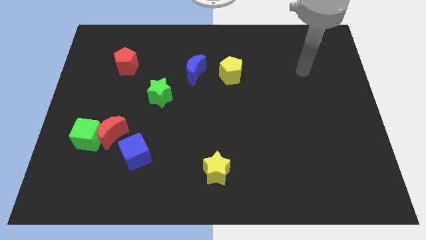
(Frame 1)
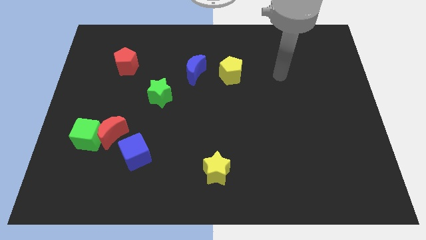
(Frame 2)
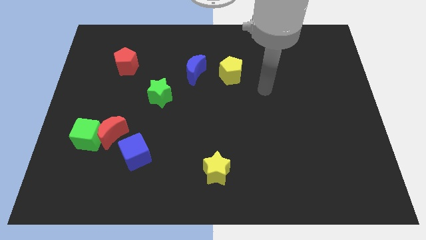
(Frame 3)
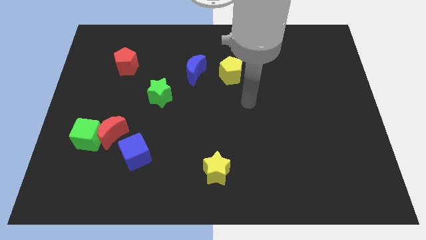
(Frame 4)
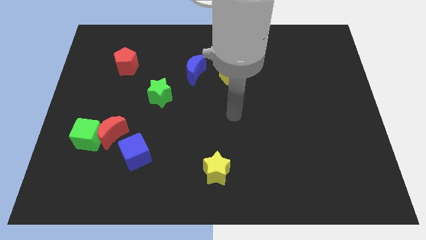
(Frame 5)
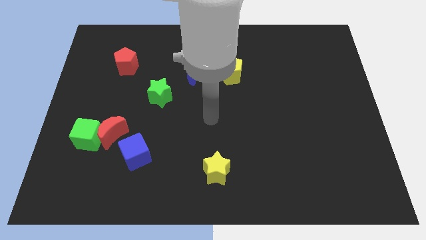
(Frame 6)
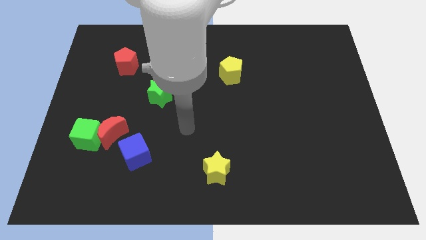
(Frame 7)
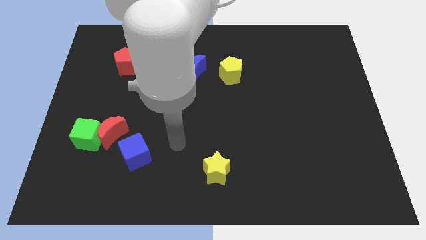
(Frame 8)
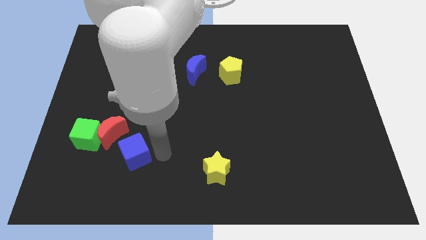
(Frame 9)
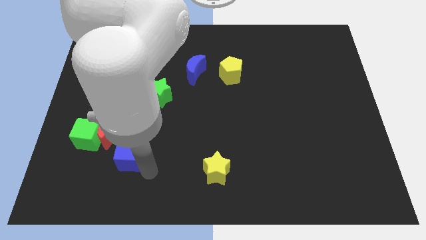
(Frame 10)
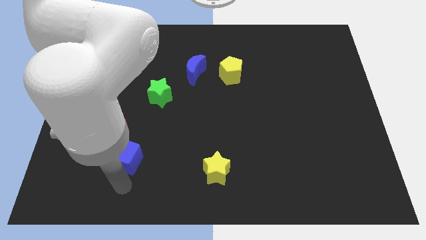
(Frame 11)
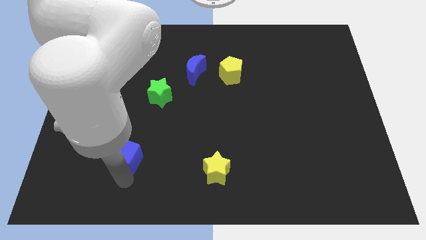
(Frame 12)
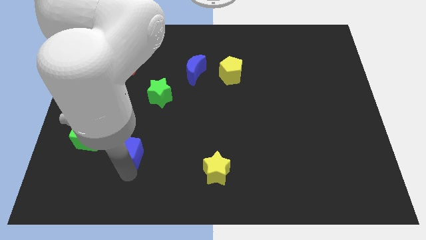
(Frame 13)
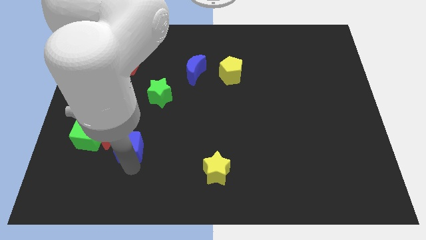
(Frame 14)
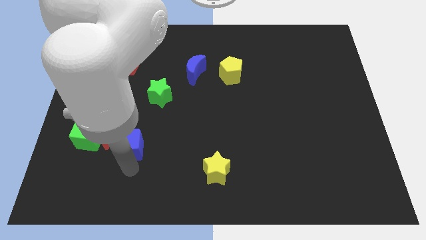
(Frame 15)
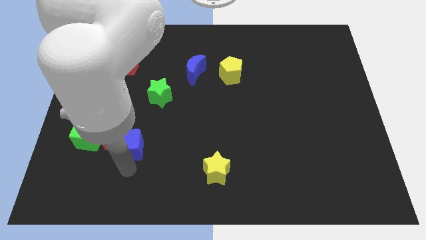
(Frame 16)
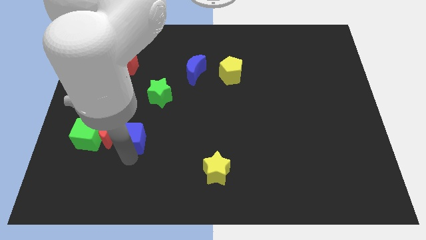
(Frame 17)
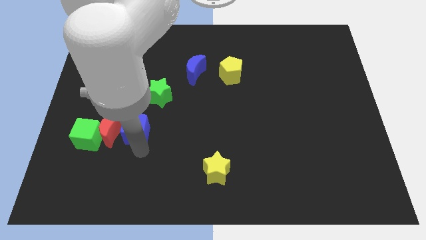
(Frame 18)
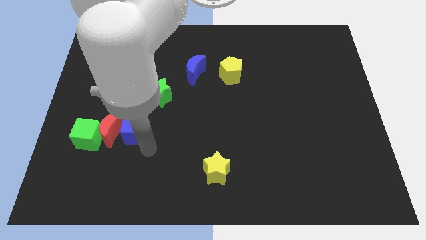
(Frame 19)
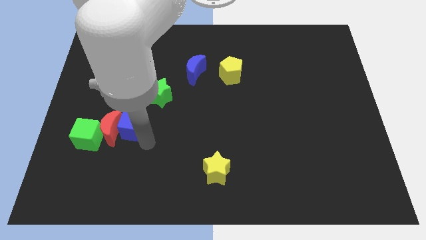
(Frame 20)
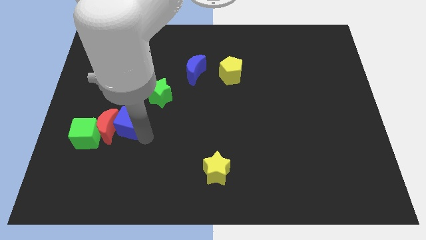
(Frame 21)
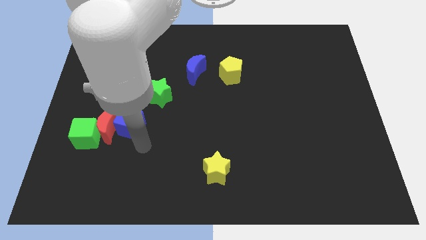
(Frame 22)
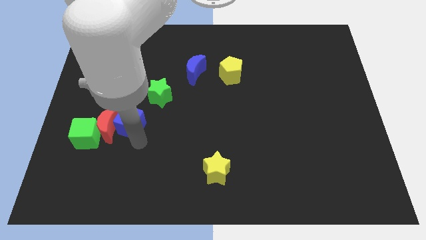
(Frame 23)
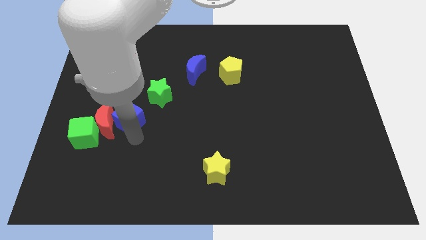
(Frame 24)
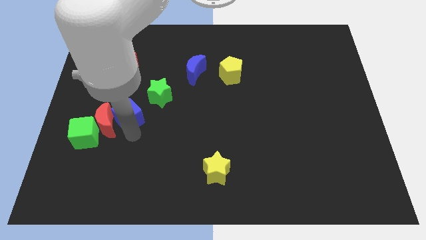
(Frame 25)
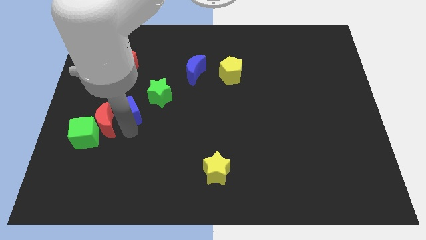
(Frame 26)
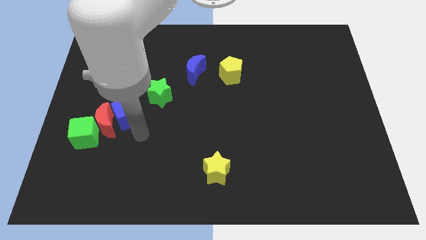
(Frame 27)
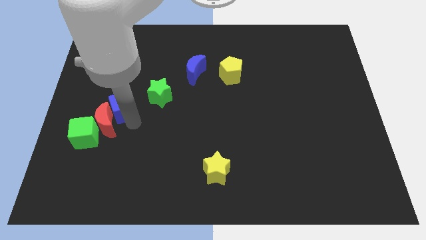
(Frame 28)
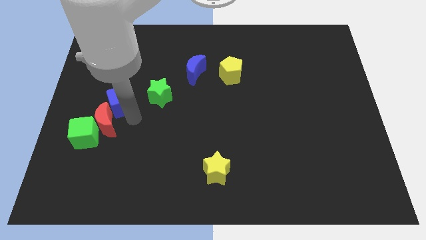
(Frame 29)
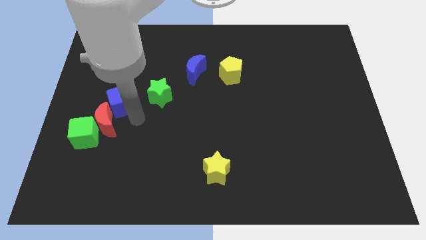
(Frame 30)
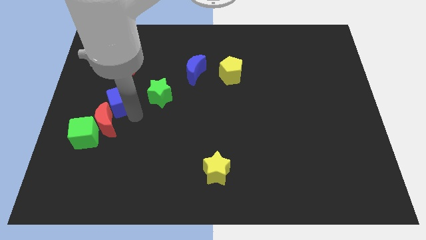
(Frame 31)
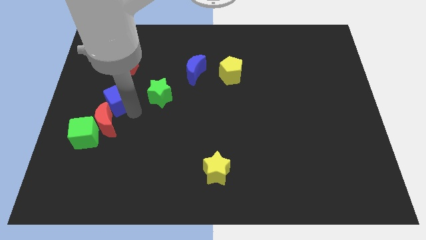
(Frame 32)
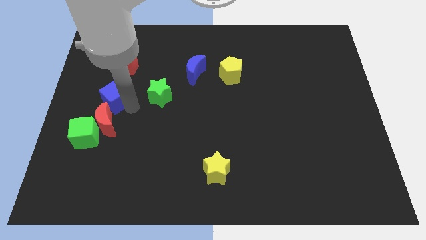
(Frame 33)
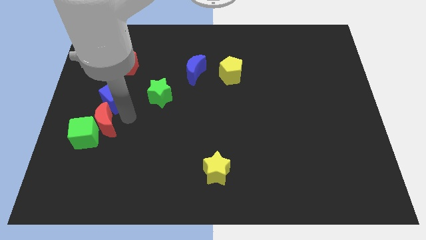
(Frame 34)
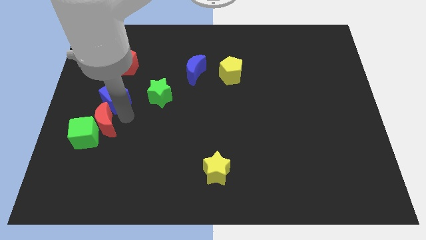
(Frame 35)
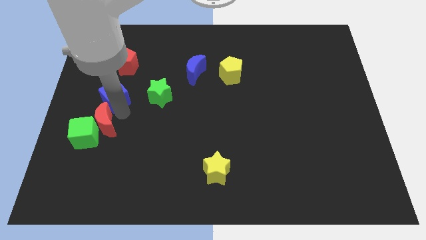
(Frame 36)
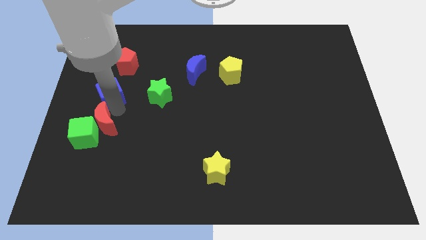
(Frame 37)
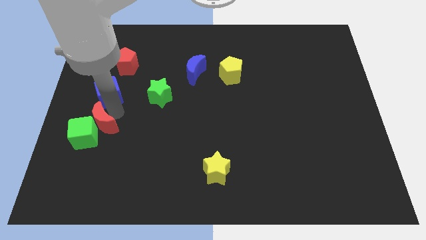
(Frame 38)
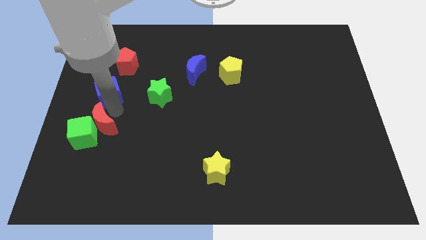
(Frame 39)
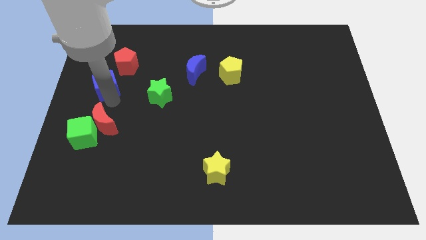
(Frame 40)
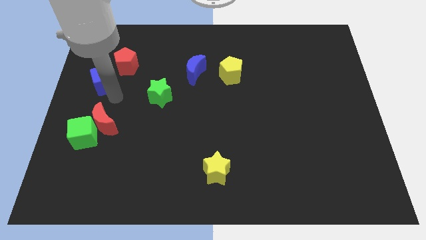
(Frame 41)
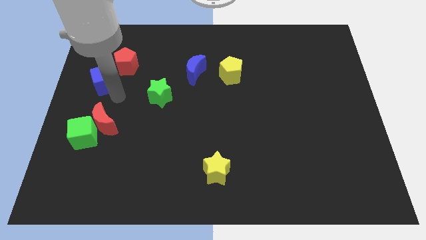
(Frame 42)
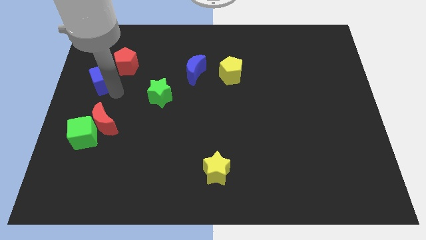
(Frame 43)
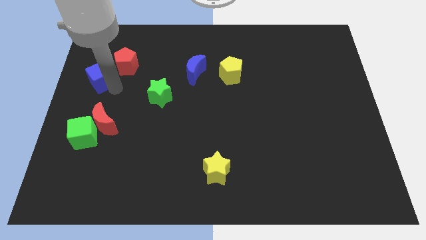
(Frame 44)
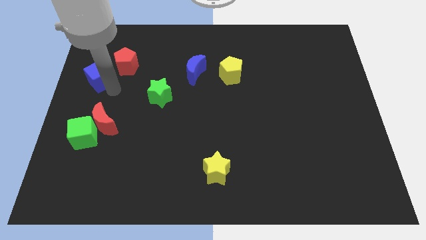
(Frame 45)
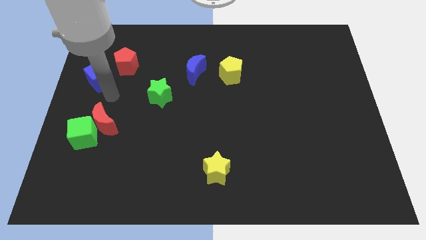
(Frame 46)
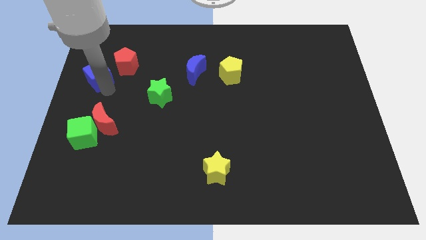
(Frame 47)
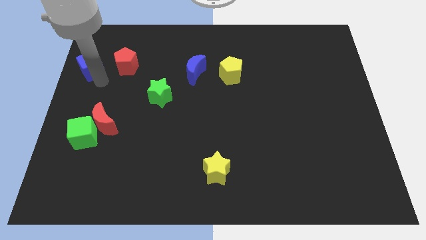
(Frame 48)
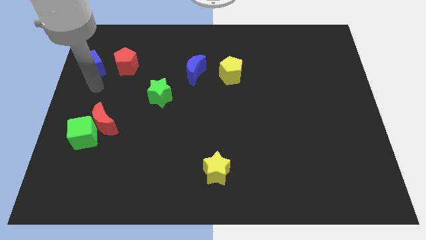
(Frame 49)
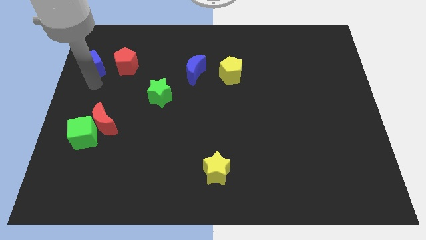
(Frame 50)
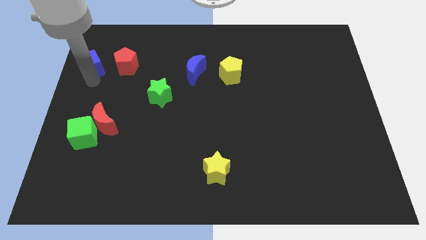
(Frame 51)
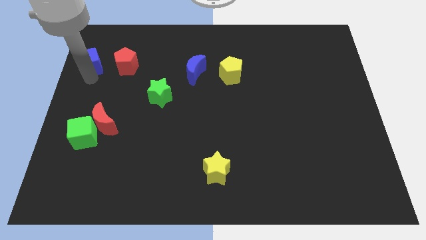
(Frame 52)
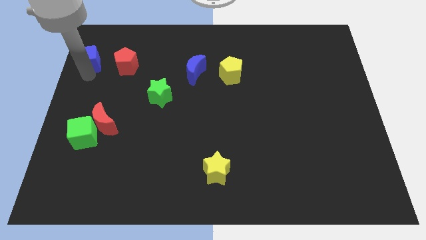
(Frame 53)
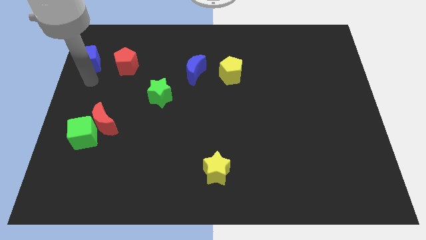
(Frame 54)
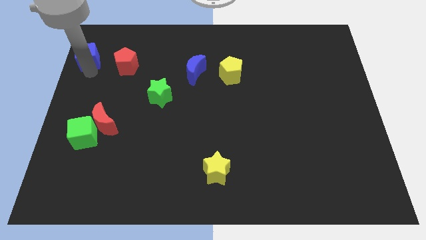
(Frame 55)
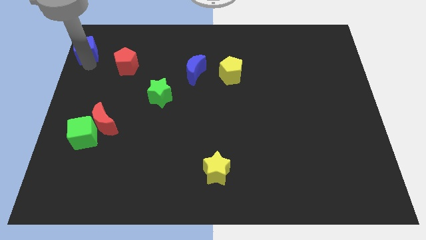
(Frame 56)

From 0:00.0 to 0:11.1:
move the blue cube to the top left
